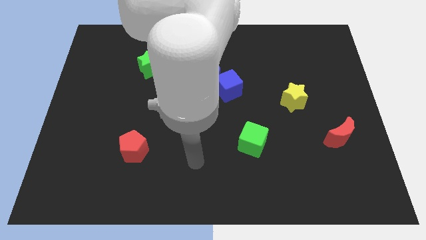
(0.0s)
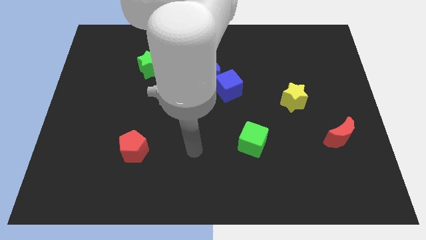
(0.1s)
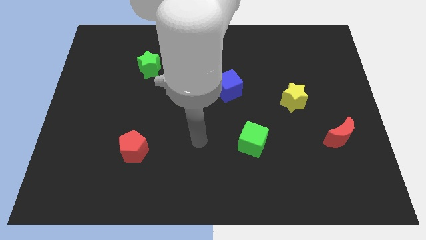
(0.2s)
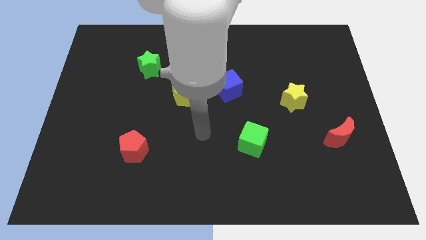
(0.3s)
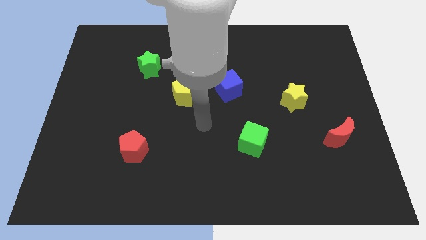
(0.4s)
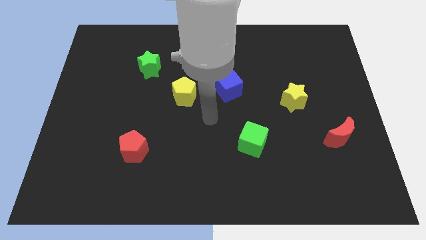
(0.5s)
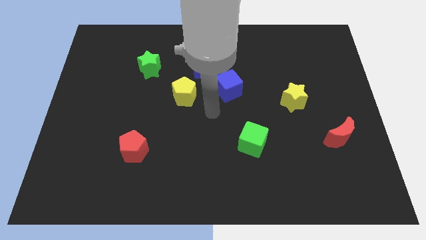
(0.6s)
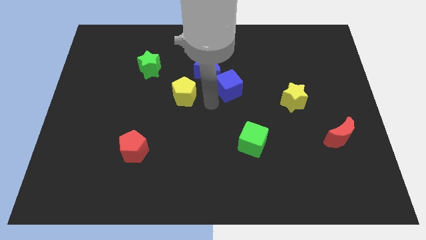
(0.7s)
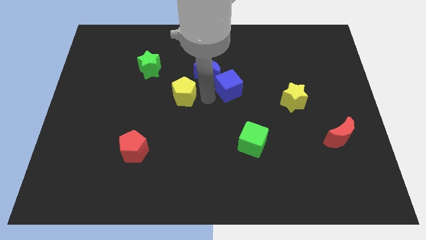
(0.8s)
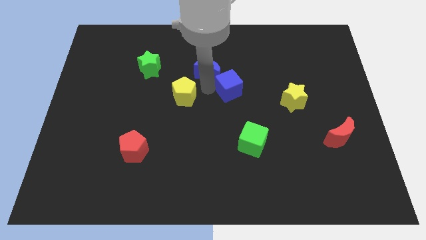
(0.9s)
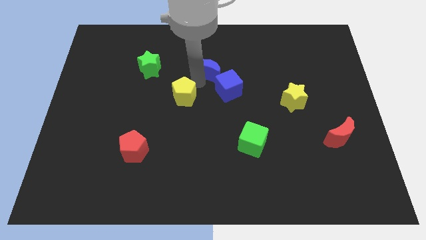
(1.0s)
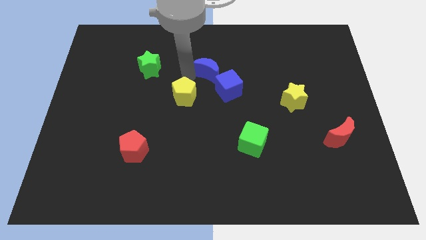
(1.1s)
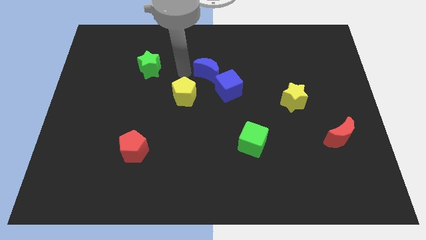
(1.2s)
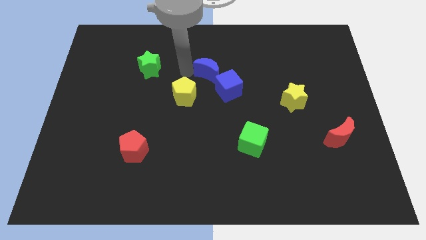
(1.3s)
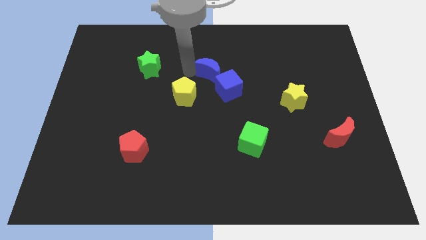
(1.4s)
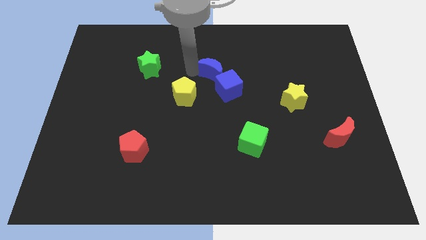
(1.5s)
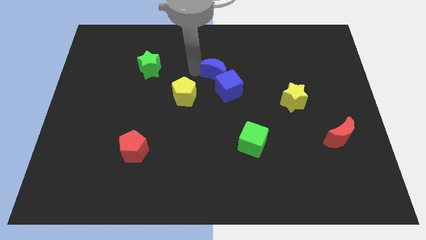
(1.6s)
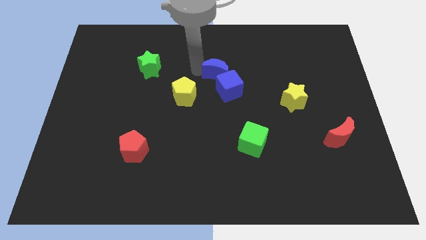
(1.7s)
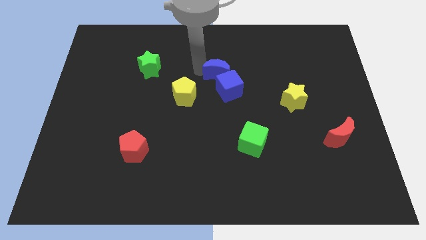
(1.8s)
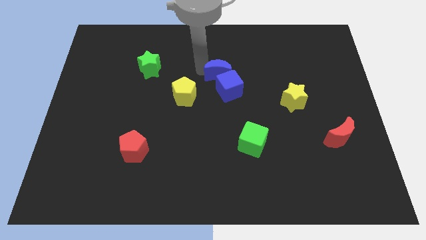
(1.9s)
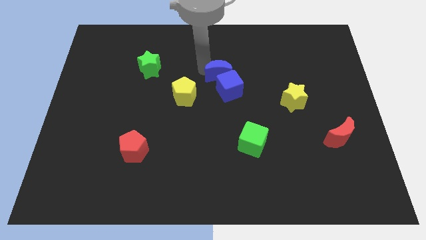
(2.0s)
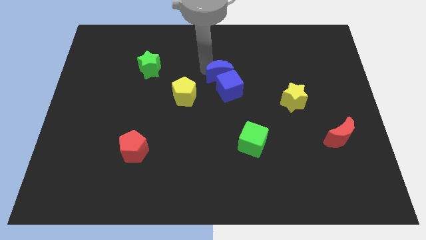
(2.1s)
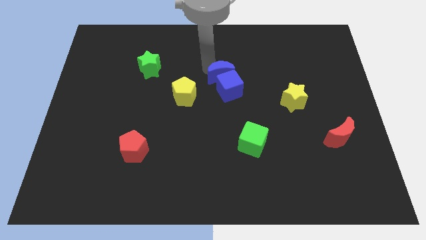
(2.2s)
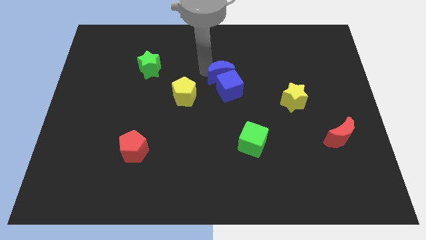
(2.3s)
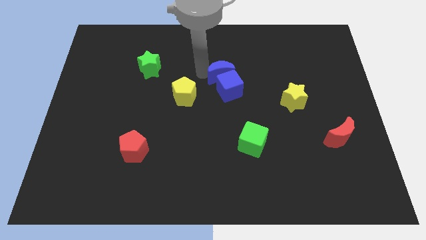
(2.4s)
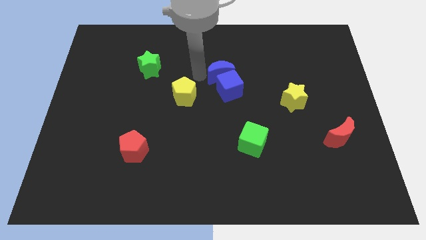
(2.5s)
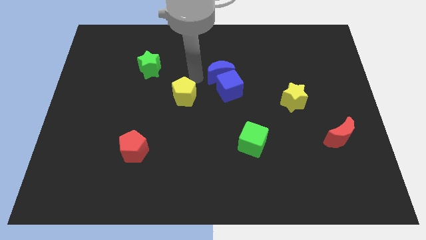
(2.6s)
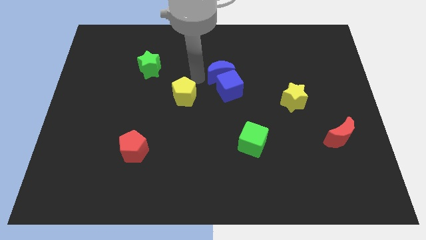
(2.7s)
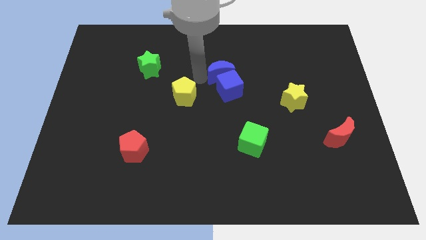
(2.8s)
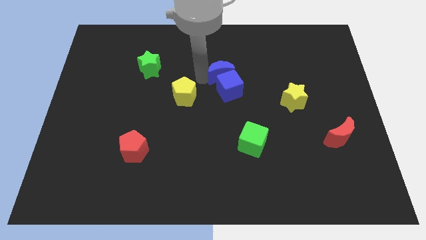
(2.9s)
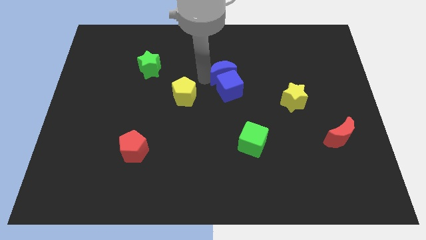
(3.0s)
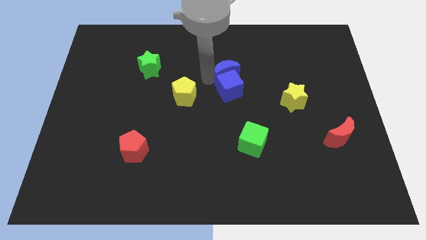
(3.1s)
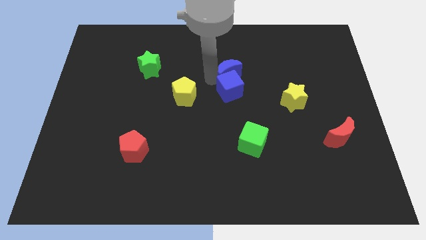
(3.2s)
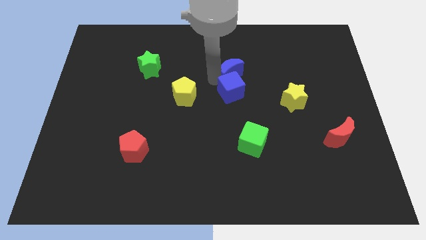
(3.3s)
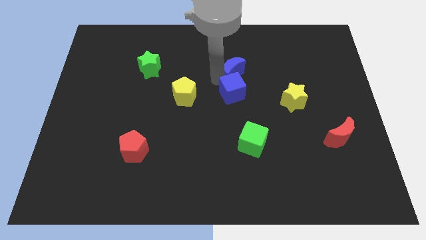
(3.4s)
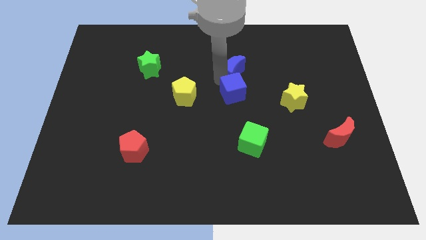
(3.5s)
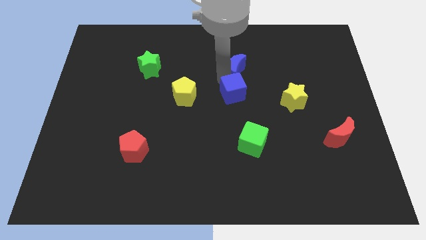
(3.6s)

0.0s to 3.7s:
slightly slide the blue moon to the right

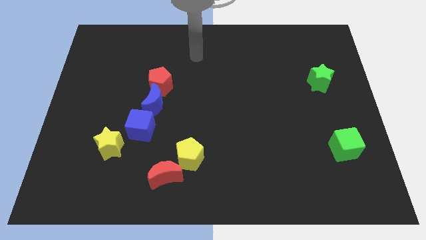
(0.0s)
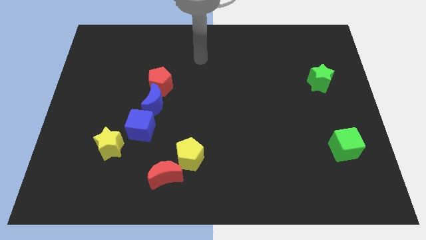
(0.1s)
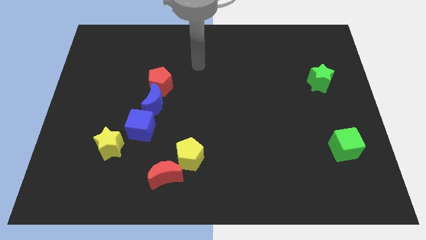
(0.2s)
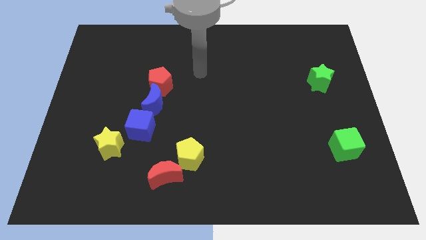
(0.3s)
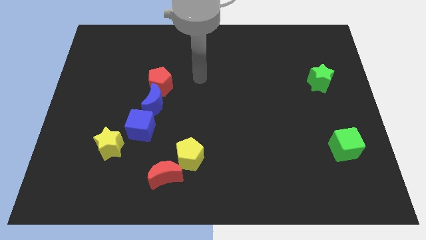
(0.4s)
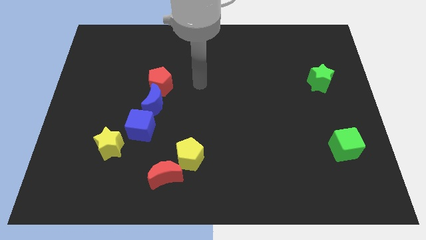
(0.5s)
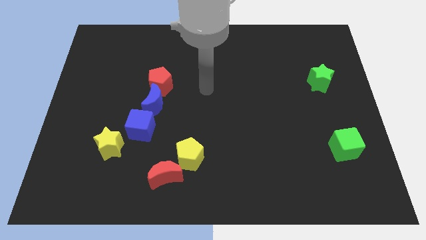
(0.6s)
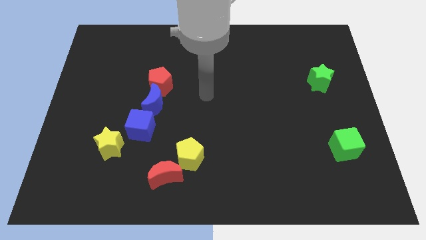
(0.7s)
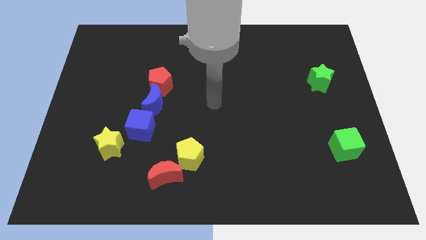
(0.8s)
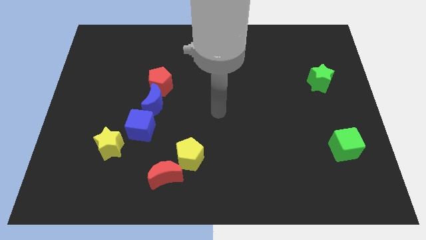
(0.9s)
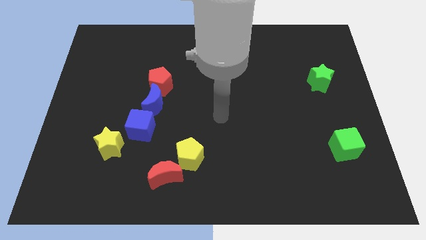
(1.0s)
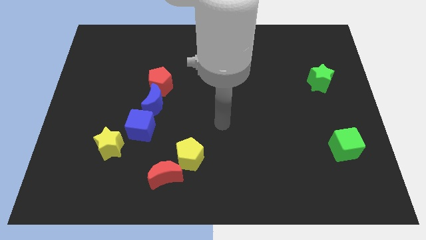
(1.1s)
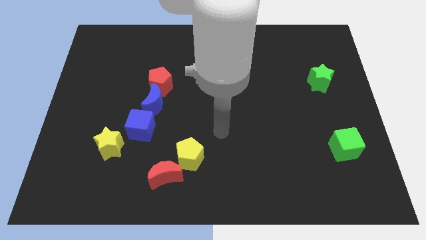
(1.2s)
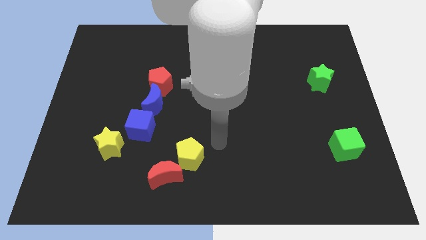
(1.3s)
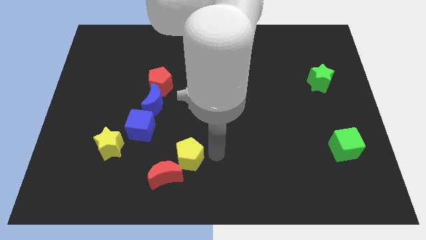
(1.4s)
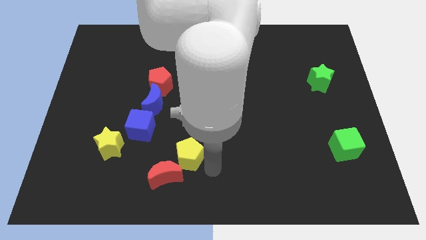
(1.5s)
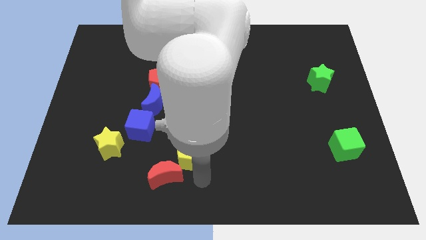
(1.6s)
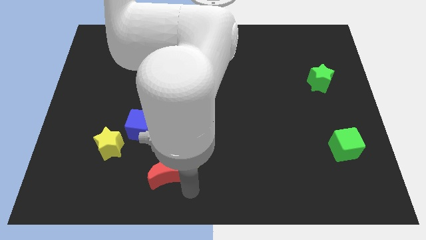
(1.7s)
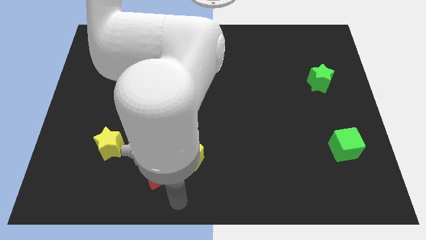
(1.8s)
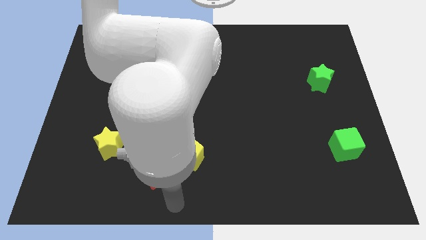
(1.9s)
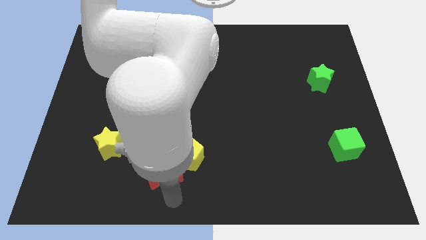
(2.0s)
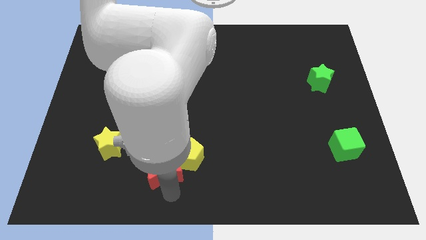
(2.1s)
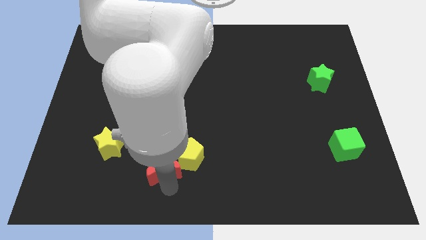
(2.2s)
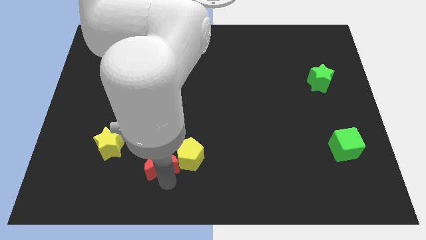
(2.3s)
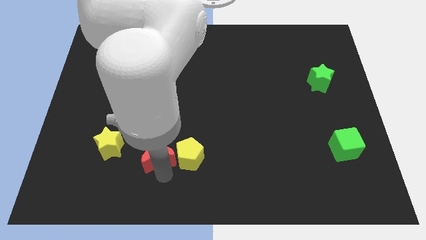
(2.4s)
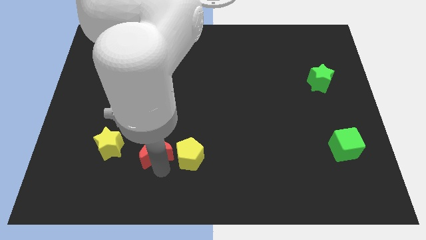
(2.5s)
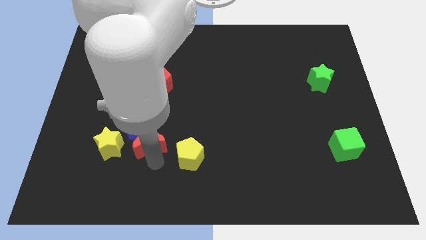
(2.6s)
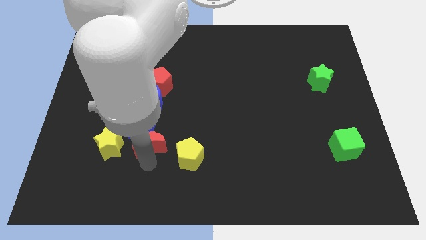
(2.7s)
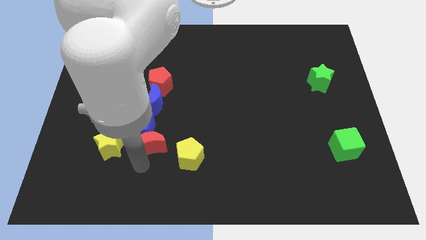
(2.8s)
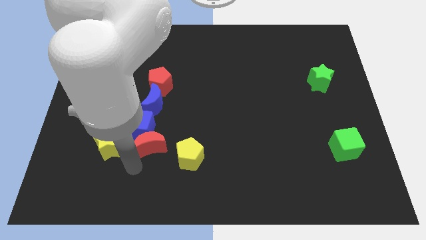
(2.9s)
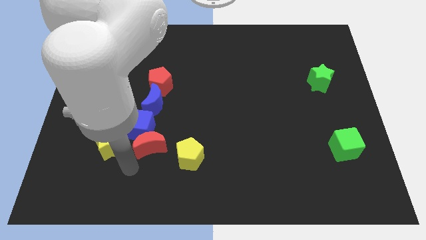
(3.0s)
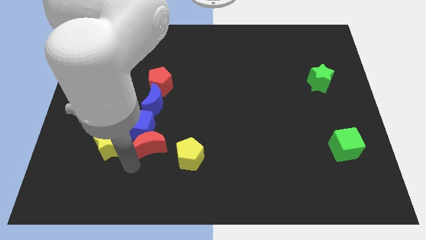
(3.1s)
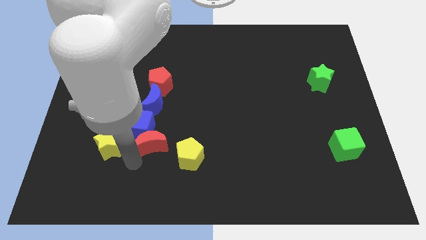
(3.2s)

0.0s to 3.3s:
move the red moon upwards a little

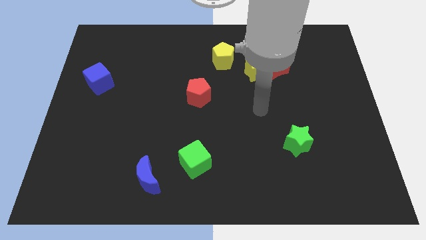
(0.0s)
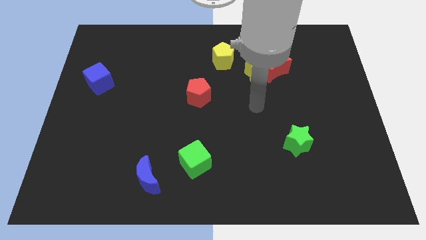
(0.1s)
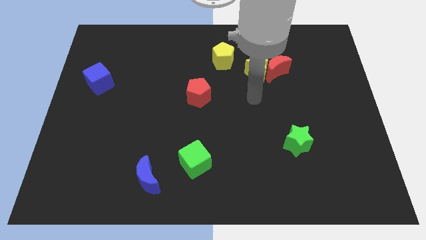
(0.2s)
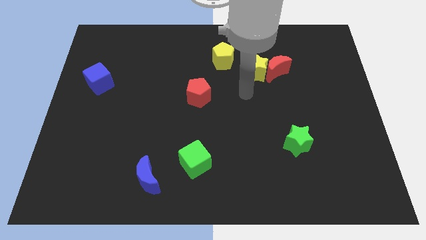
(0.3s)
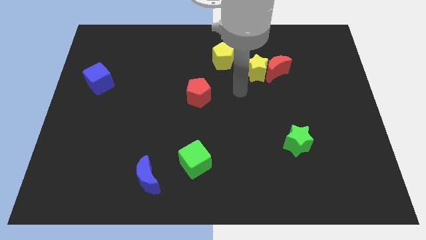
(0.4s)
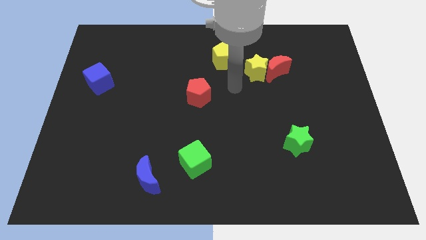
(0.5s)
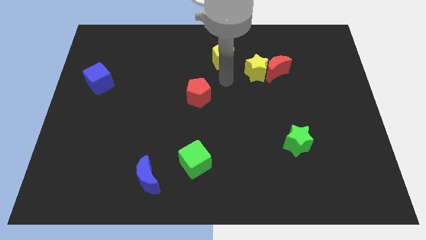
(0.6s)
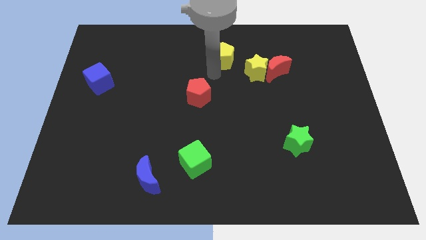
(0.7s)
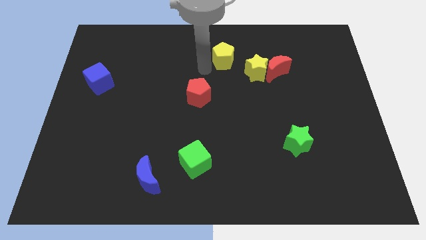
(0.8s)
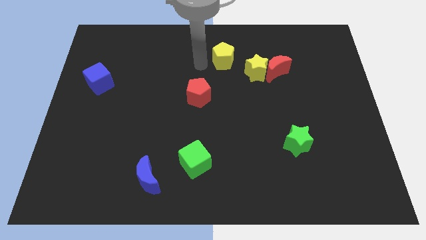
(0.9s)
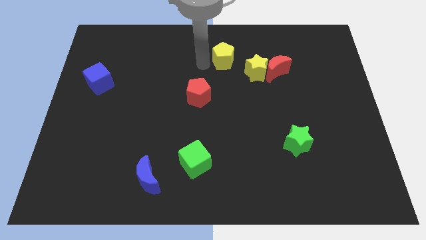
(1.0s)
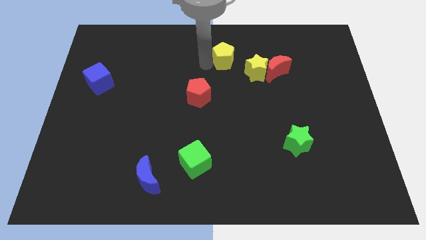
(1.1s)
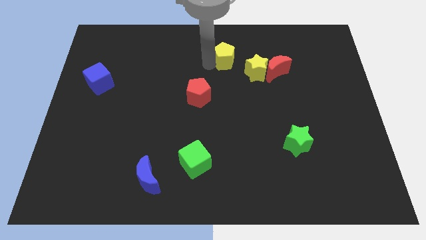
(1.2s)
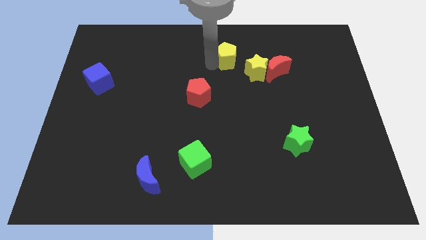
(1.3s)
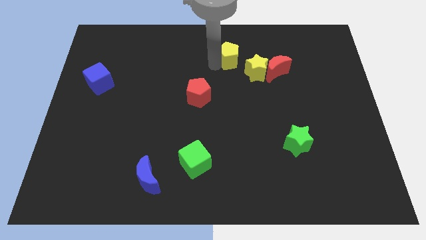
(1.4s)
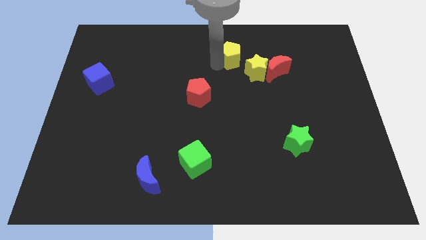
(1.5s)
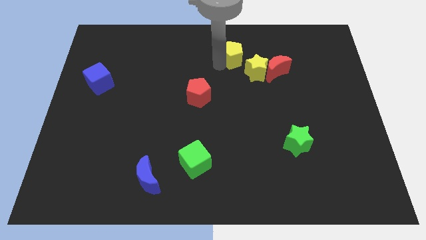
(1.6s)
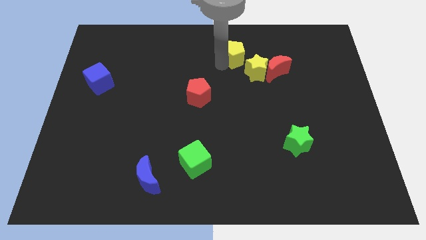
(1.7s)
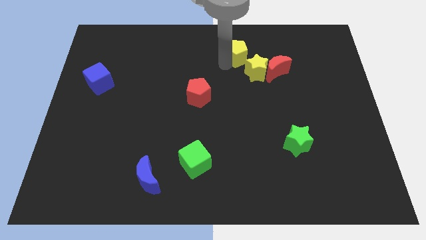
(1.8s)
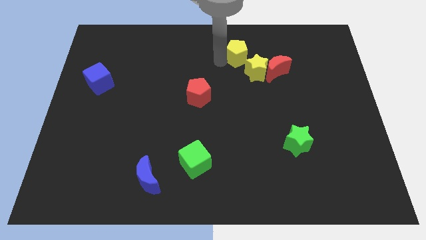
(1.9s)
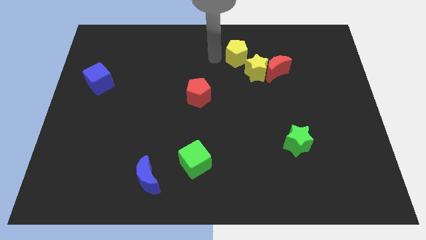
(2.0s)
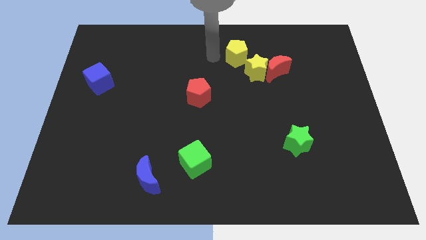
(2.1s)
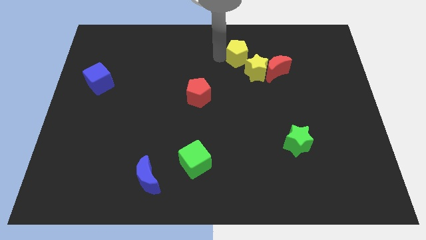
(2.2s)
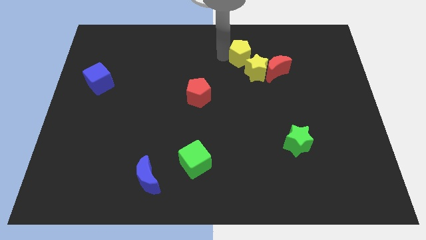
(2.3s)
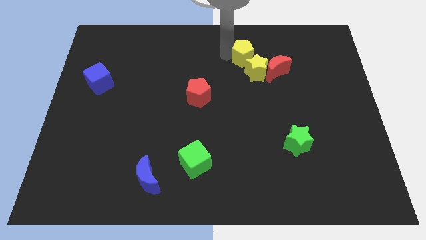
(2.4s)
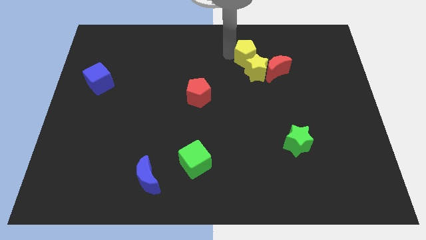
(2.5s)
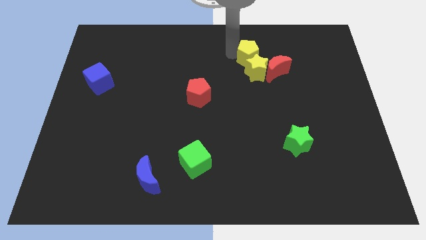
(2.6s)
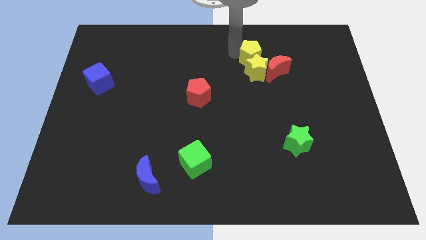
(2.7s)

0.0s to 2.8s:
slide the yellow pentagon right slightly
